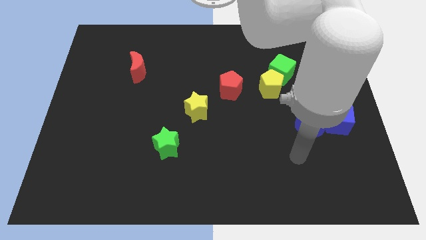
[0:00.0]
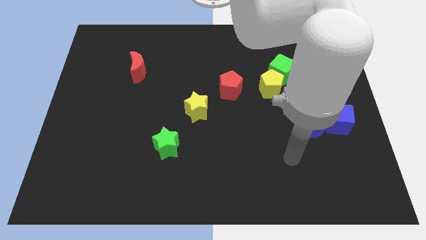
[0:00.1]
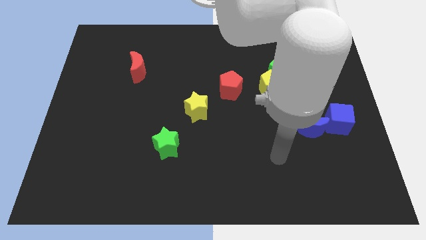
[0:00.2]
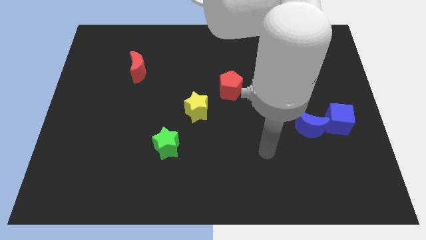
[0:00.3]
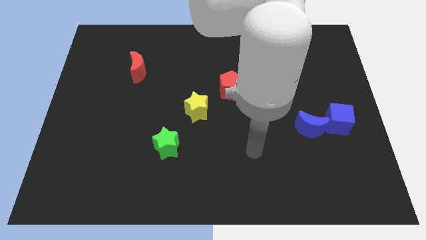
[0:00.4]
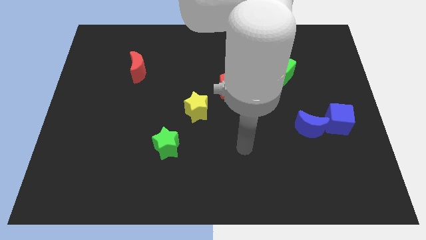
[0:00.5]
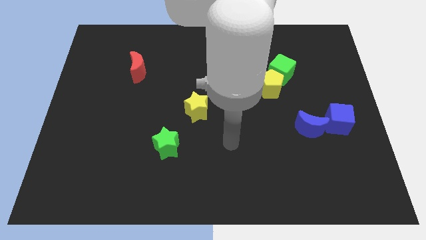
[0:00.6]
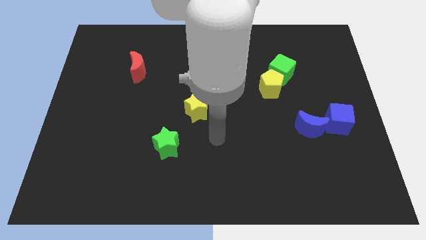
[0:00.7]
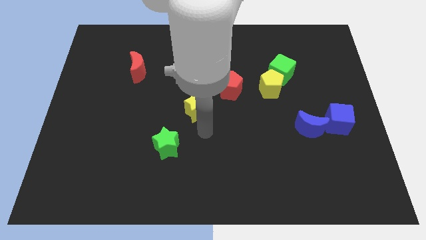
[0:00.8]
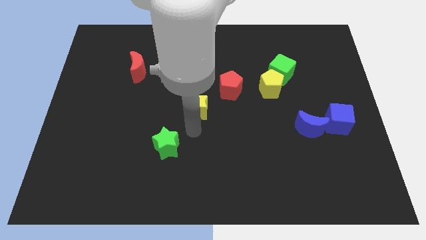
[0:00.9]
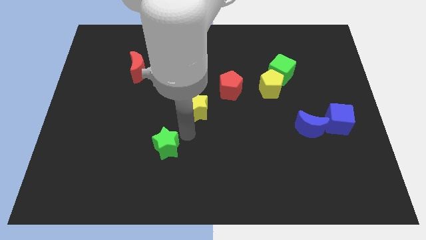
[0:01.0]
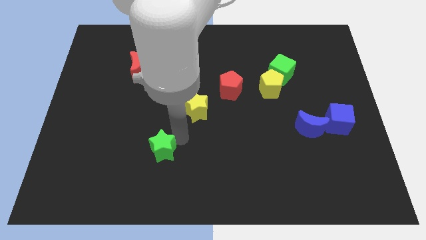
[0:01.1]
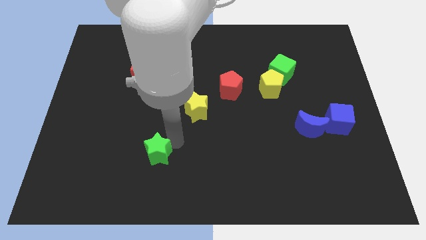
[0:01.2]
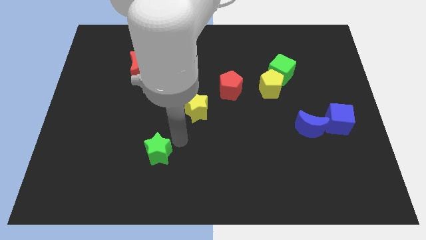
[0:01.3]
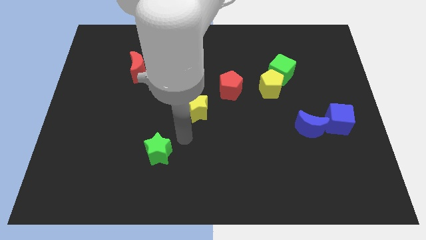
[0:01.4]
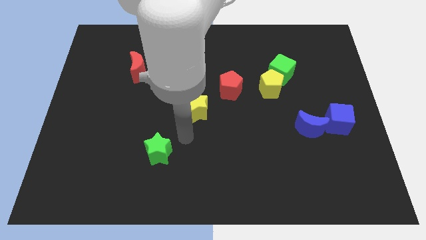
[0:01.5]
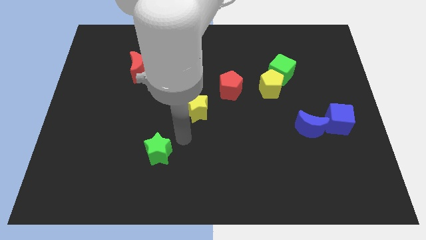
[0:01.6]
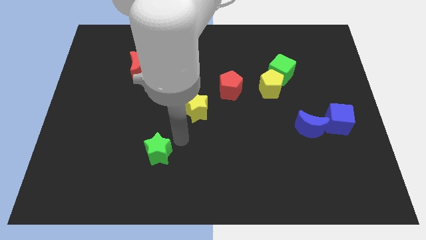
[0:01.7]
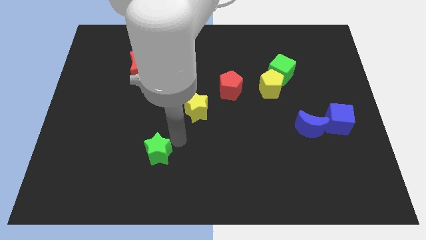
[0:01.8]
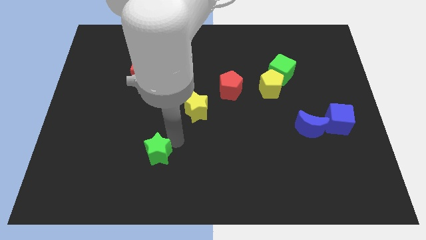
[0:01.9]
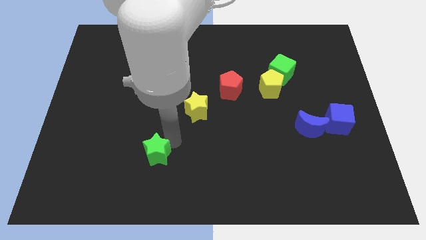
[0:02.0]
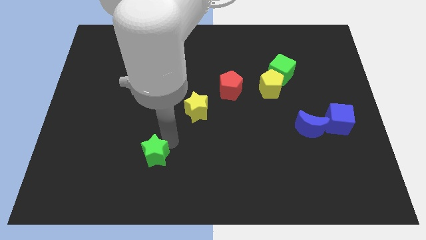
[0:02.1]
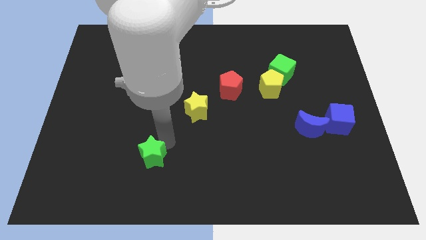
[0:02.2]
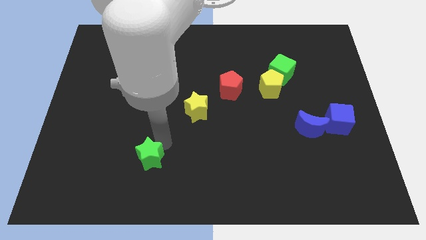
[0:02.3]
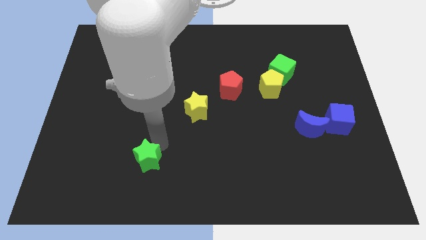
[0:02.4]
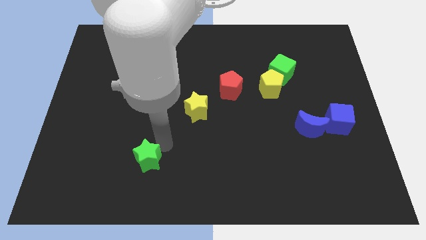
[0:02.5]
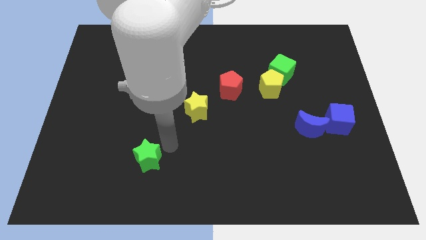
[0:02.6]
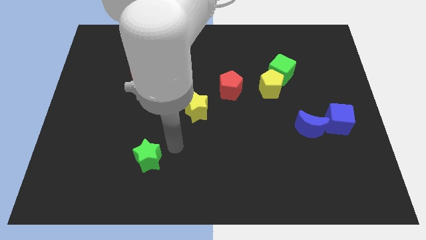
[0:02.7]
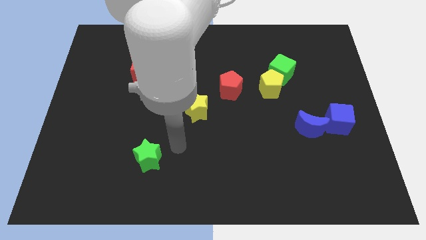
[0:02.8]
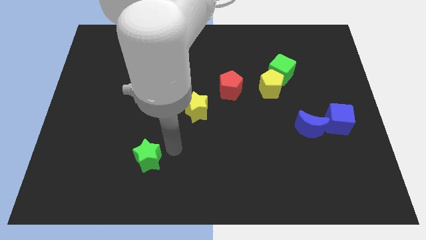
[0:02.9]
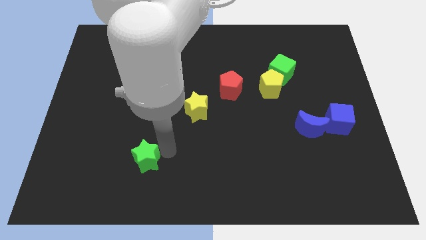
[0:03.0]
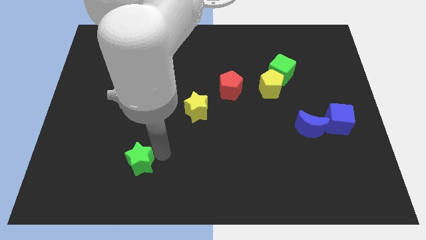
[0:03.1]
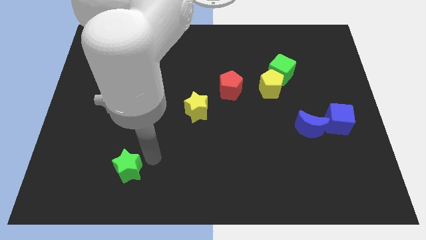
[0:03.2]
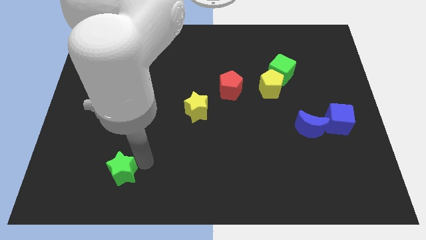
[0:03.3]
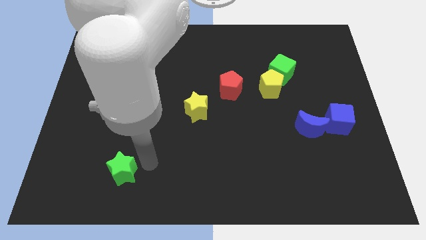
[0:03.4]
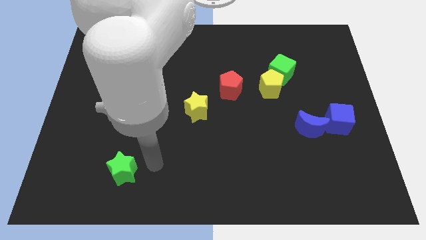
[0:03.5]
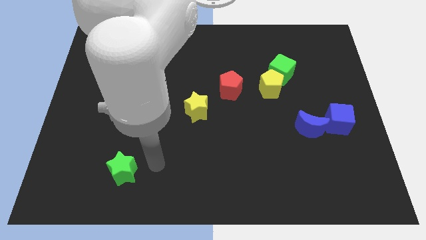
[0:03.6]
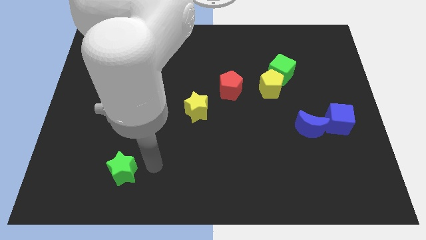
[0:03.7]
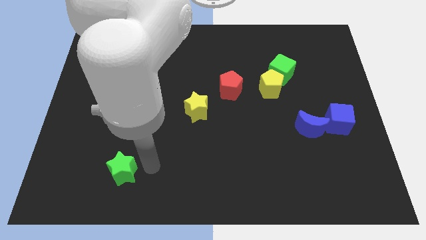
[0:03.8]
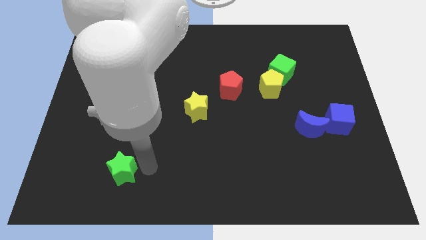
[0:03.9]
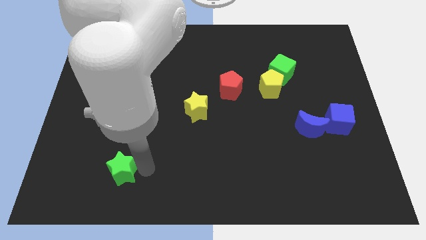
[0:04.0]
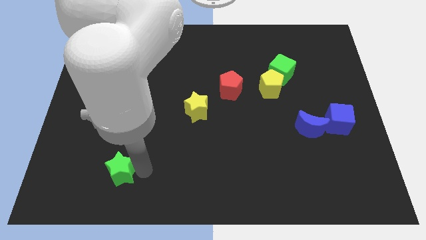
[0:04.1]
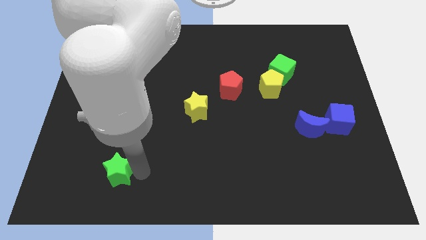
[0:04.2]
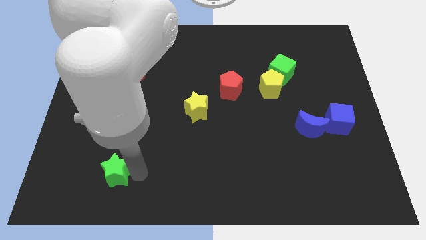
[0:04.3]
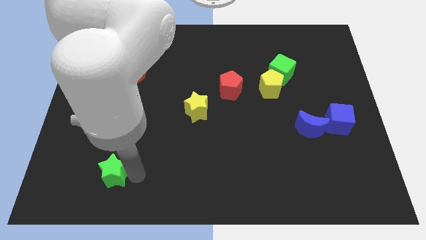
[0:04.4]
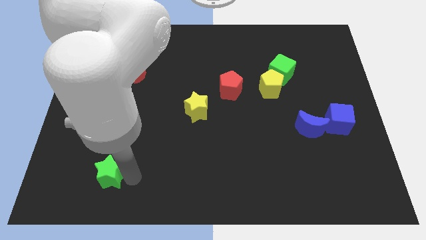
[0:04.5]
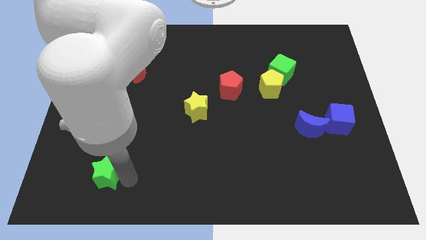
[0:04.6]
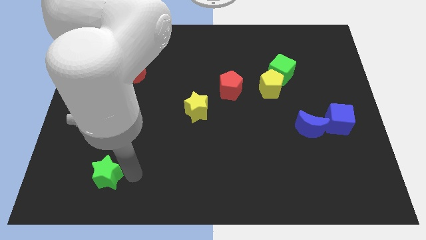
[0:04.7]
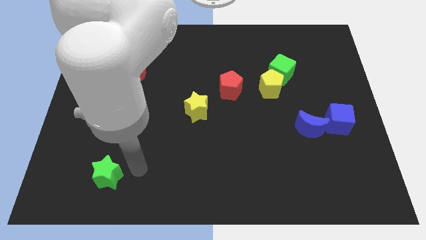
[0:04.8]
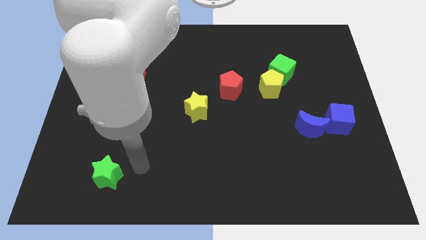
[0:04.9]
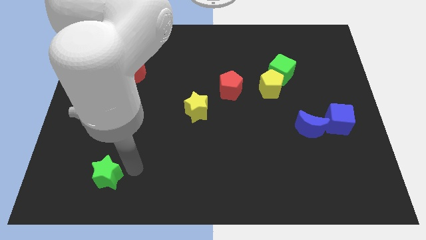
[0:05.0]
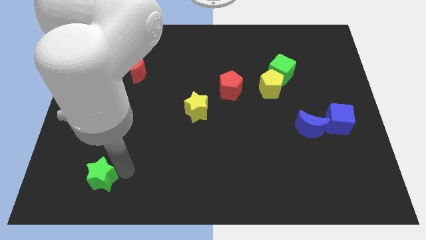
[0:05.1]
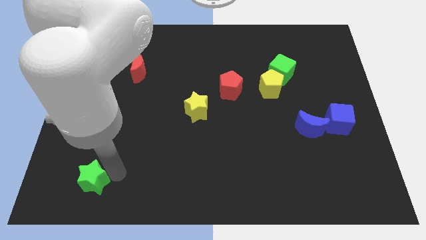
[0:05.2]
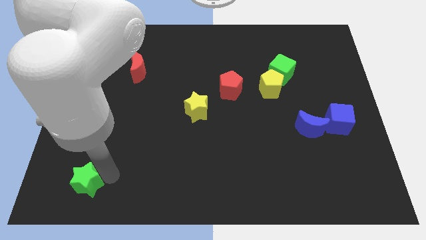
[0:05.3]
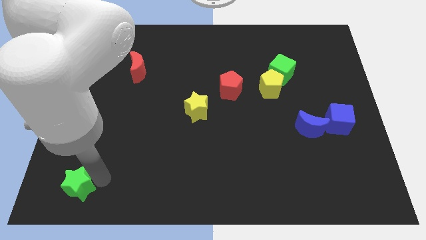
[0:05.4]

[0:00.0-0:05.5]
push the green star to the lower left corner
